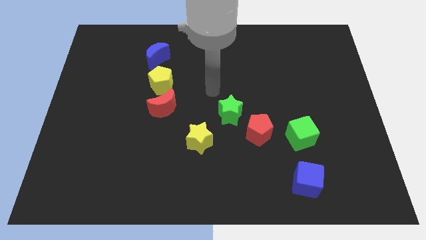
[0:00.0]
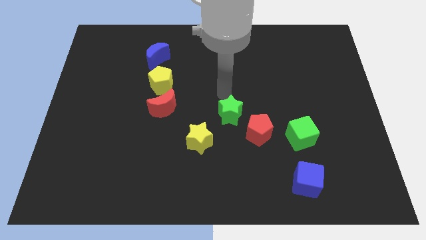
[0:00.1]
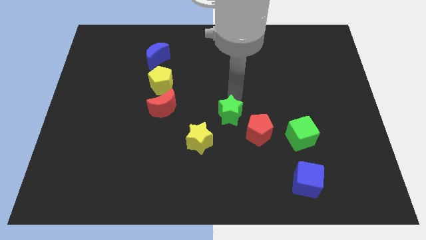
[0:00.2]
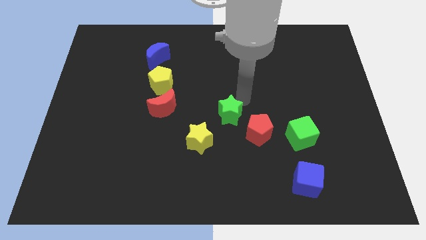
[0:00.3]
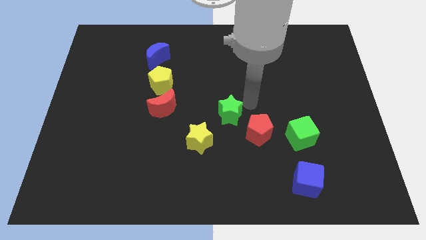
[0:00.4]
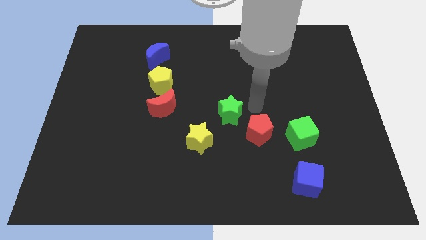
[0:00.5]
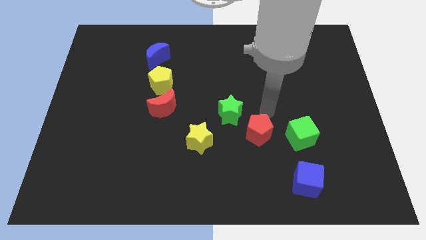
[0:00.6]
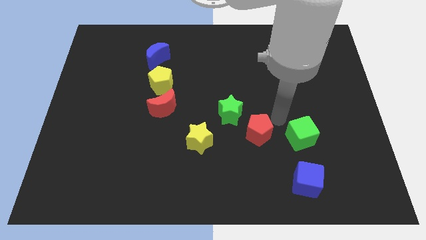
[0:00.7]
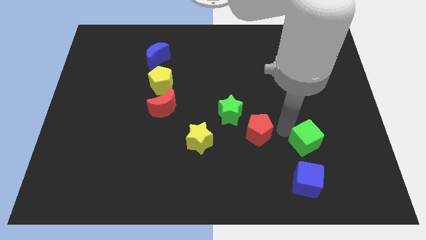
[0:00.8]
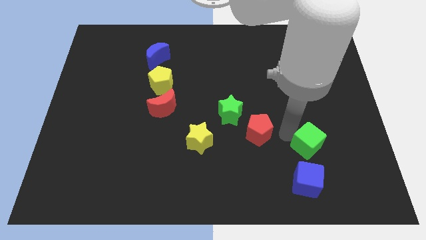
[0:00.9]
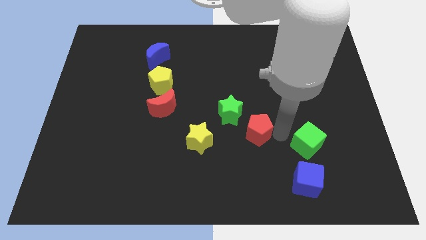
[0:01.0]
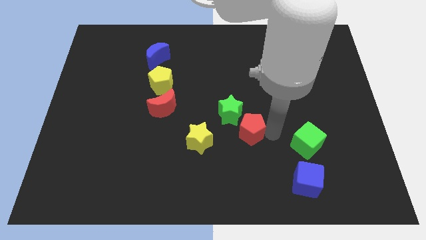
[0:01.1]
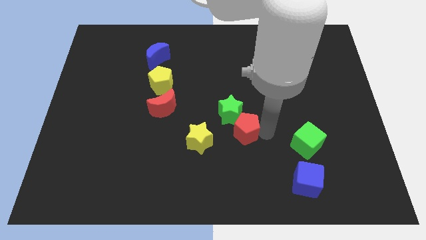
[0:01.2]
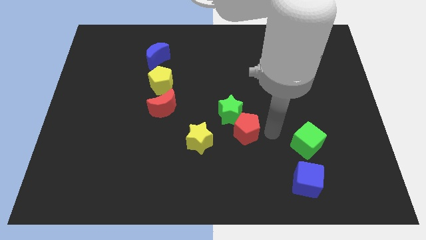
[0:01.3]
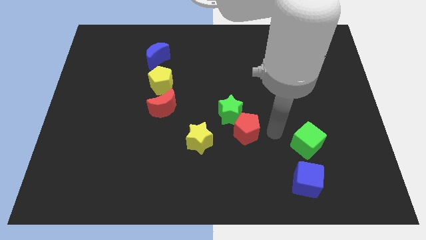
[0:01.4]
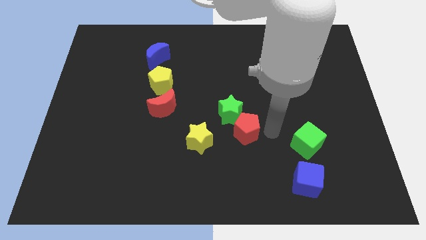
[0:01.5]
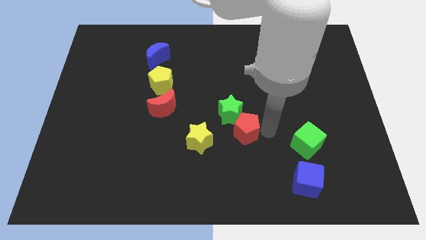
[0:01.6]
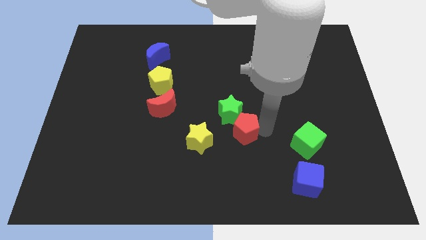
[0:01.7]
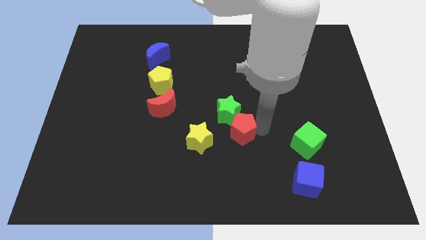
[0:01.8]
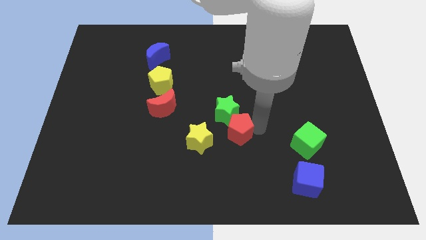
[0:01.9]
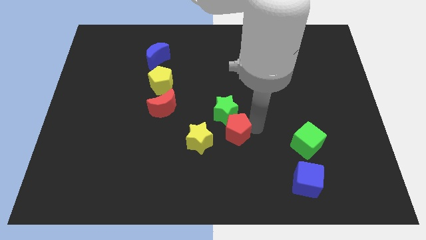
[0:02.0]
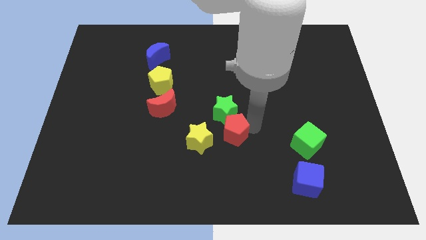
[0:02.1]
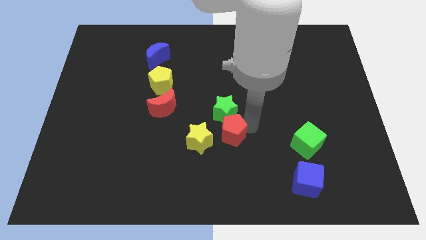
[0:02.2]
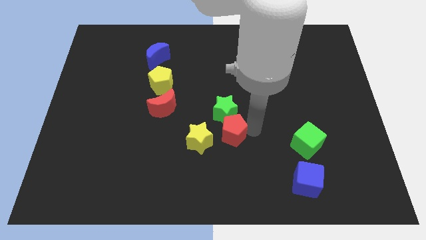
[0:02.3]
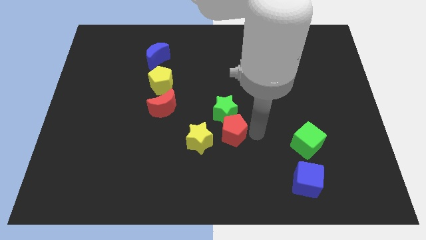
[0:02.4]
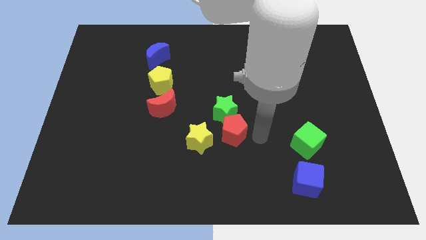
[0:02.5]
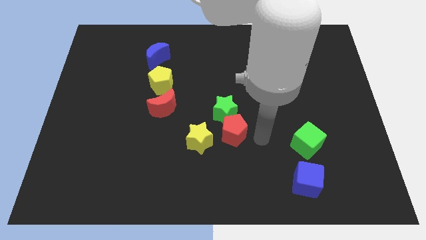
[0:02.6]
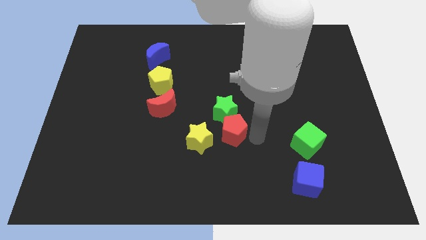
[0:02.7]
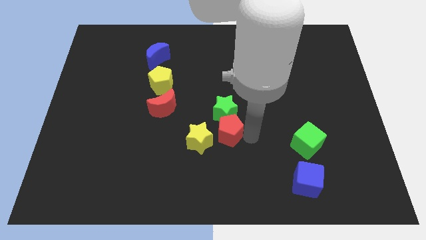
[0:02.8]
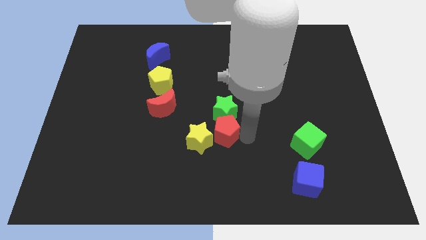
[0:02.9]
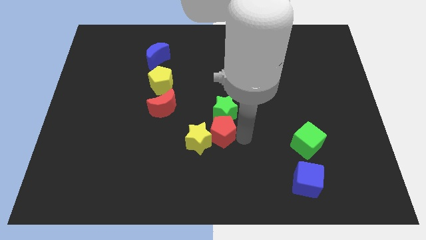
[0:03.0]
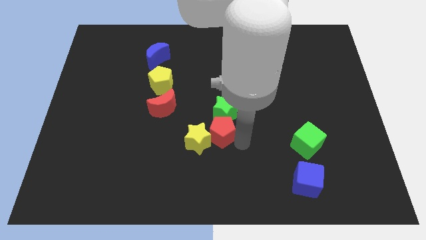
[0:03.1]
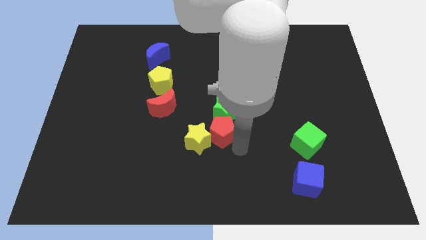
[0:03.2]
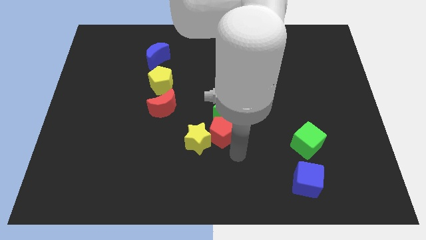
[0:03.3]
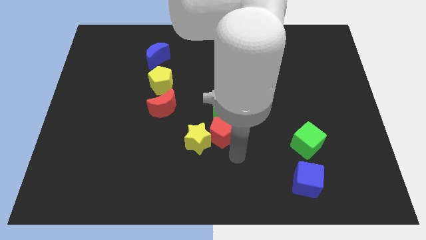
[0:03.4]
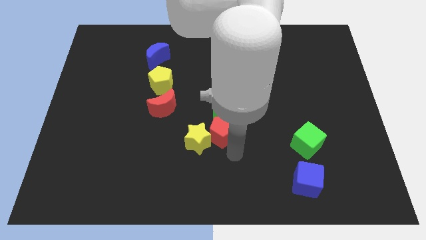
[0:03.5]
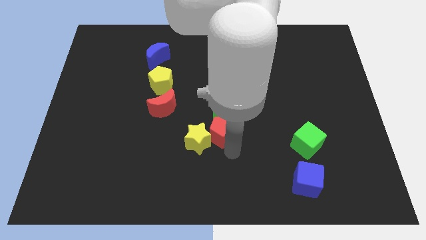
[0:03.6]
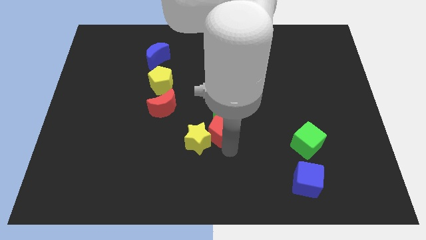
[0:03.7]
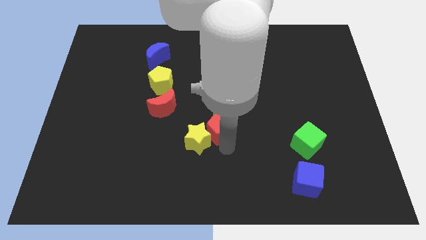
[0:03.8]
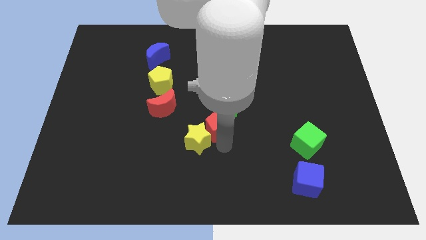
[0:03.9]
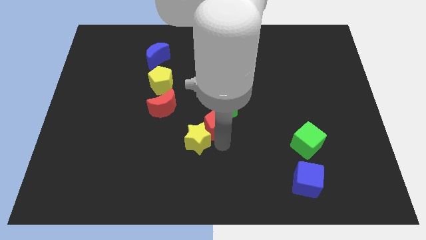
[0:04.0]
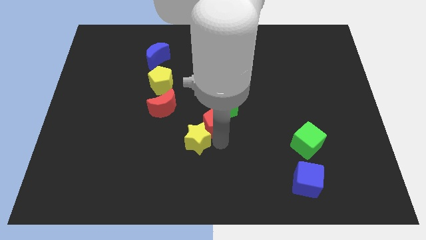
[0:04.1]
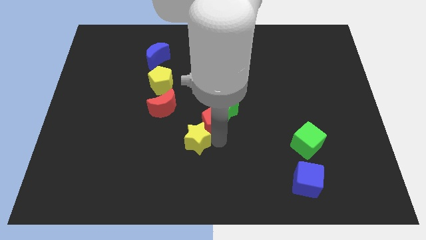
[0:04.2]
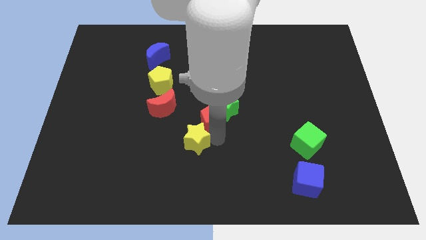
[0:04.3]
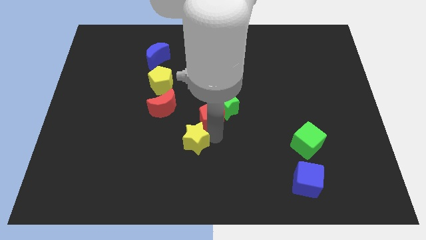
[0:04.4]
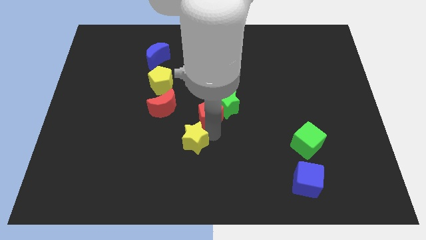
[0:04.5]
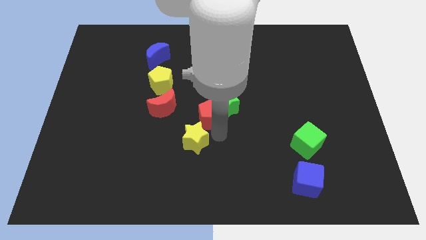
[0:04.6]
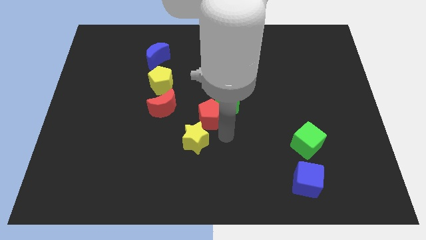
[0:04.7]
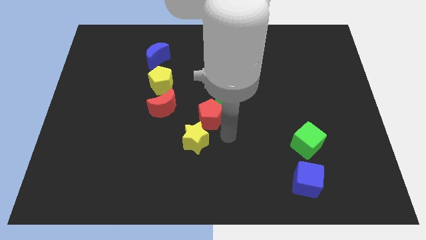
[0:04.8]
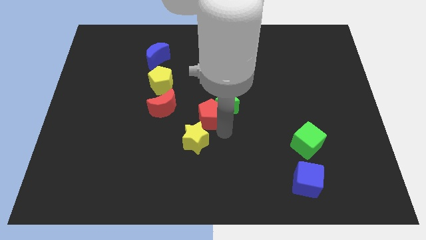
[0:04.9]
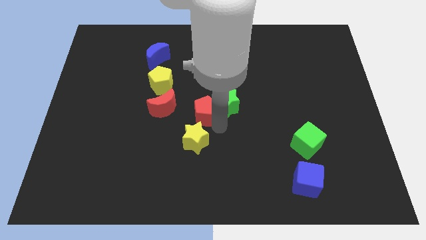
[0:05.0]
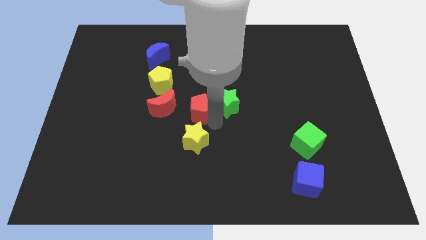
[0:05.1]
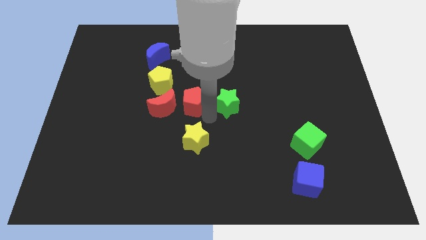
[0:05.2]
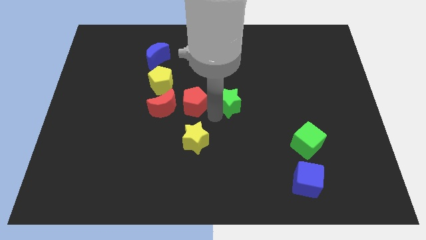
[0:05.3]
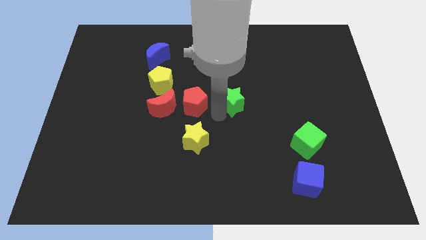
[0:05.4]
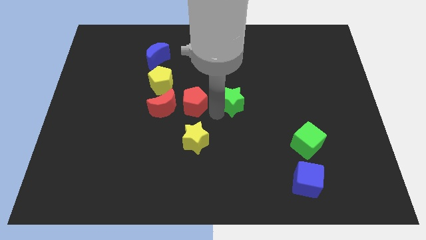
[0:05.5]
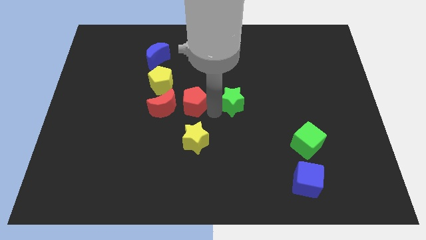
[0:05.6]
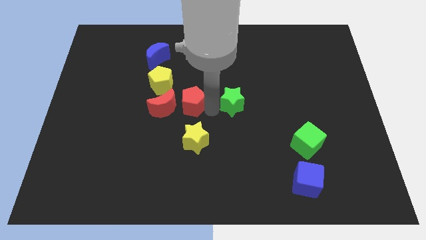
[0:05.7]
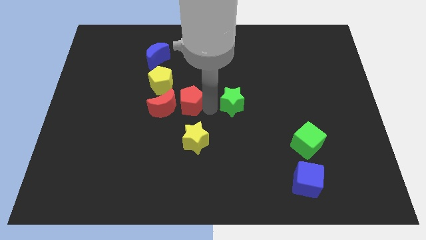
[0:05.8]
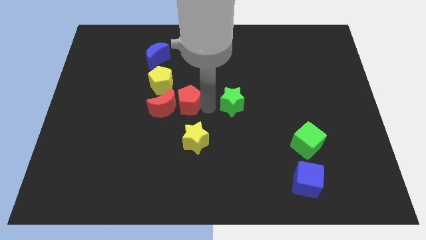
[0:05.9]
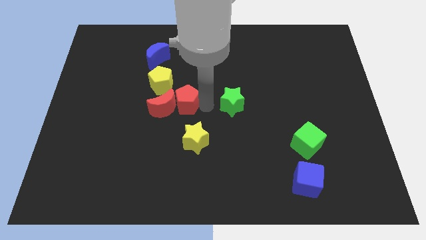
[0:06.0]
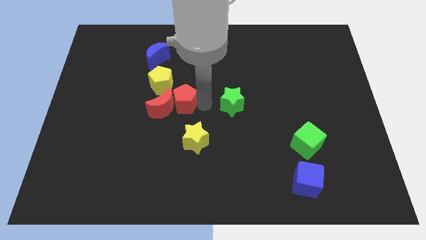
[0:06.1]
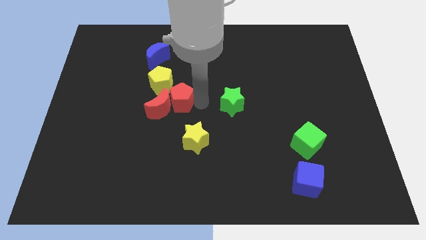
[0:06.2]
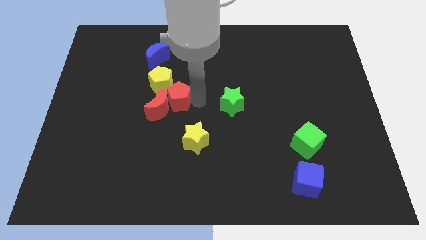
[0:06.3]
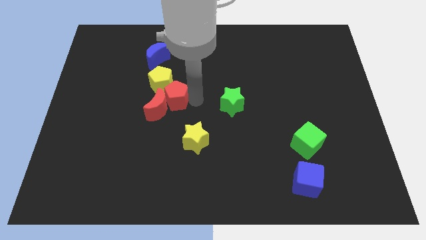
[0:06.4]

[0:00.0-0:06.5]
slide the red pentagon to the yellow pentagon

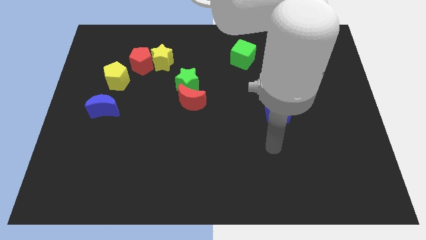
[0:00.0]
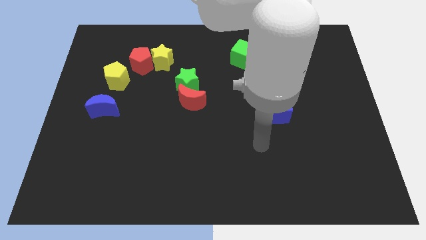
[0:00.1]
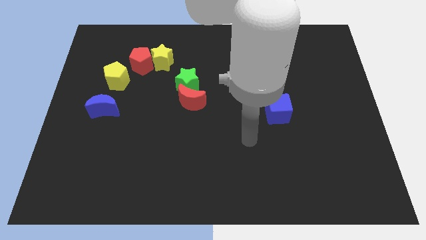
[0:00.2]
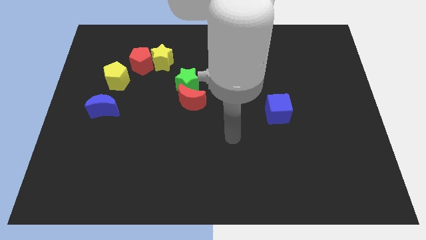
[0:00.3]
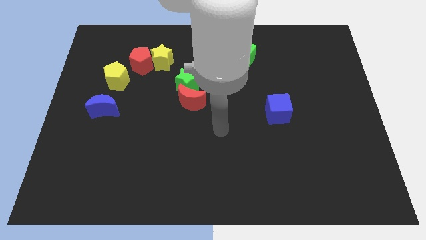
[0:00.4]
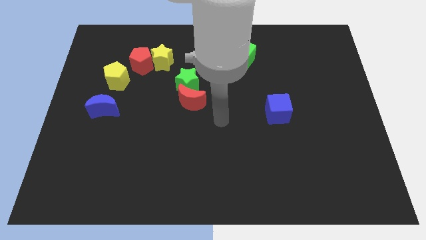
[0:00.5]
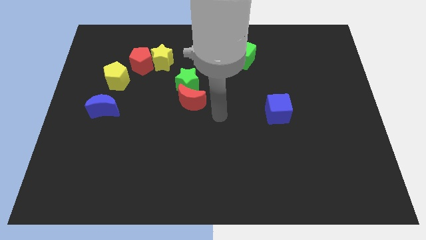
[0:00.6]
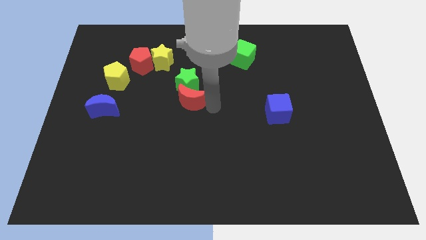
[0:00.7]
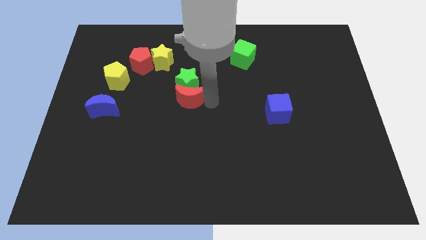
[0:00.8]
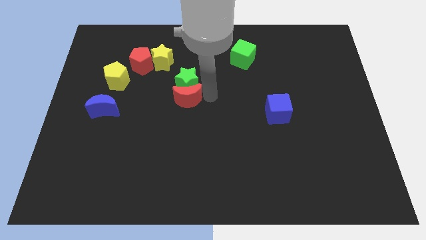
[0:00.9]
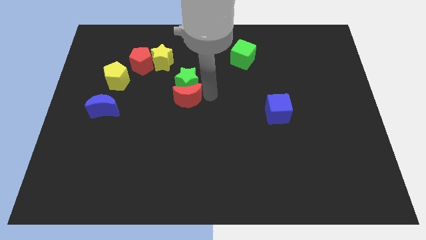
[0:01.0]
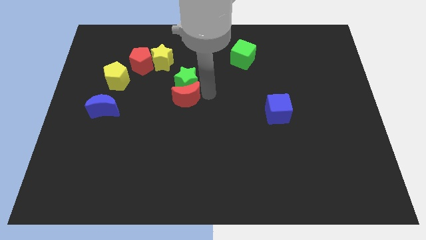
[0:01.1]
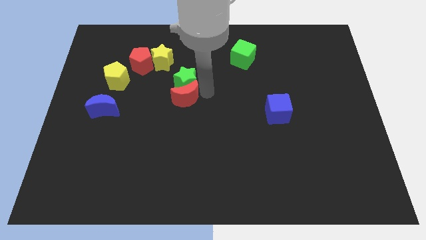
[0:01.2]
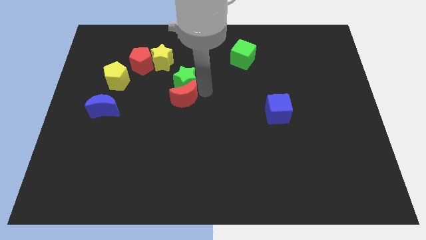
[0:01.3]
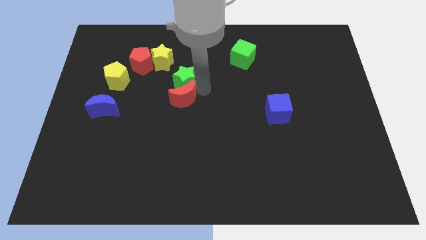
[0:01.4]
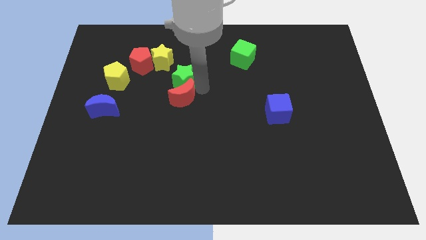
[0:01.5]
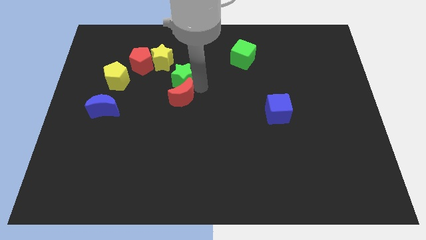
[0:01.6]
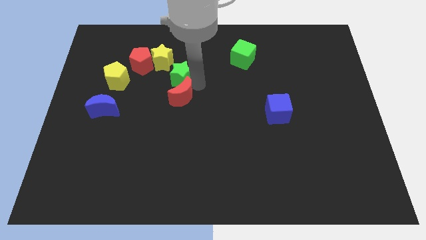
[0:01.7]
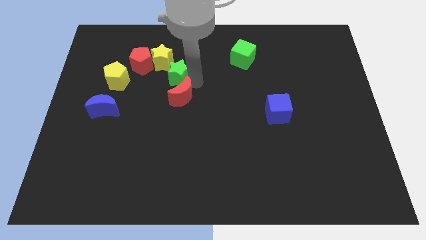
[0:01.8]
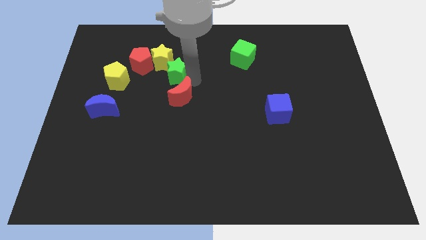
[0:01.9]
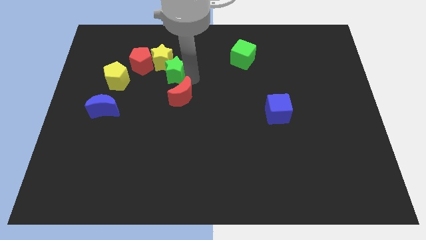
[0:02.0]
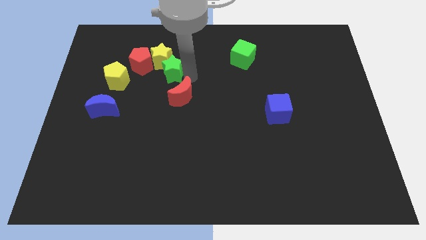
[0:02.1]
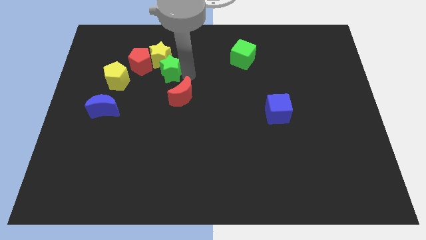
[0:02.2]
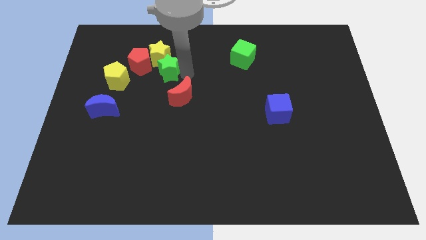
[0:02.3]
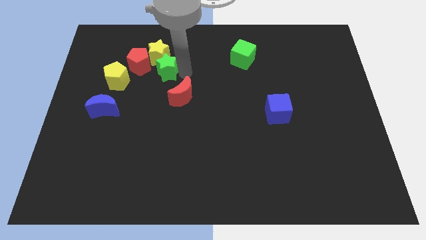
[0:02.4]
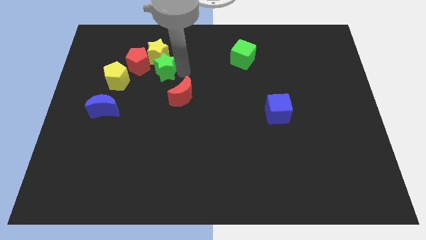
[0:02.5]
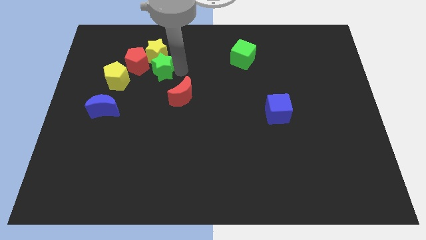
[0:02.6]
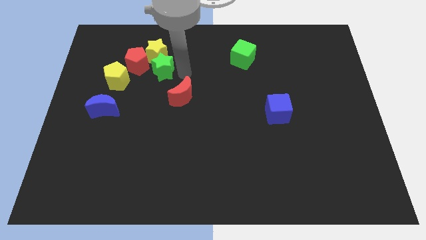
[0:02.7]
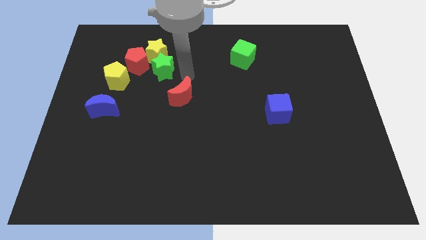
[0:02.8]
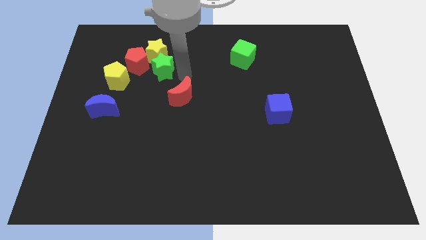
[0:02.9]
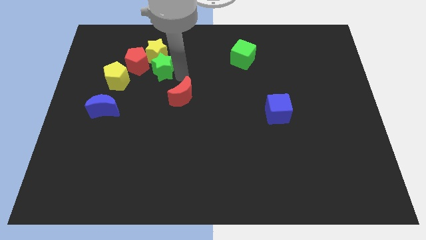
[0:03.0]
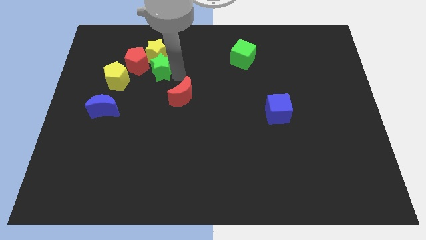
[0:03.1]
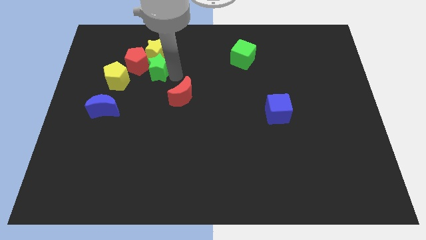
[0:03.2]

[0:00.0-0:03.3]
put the green star next to the red pentagon
